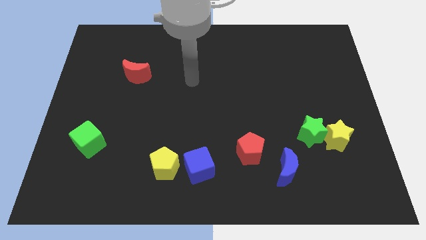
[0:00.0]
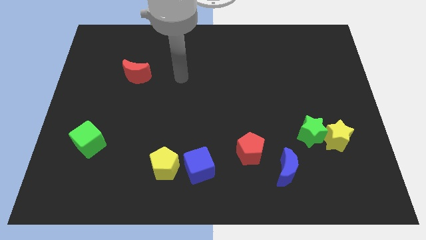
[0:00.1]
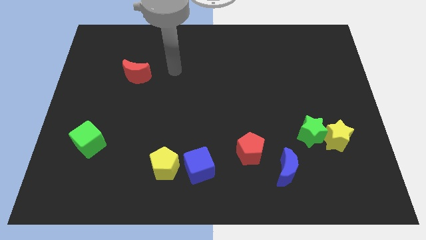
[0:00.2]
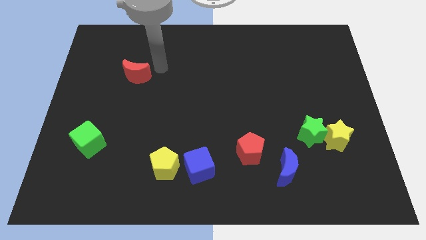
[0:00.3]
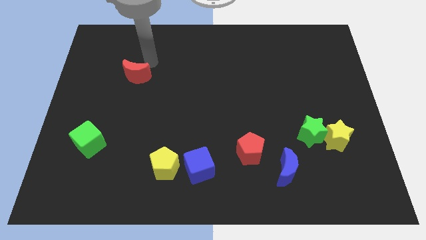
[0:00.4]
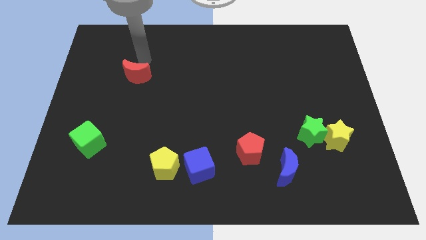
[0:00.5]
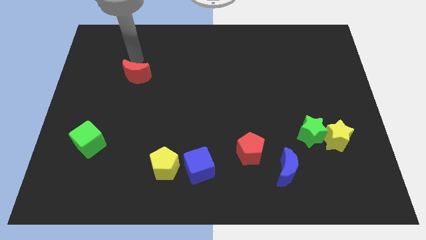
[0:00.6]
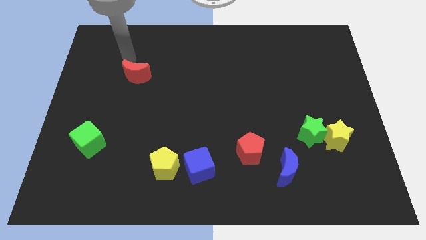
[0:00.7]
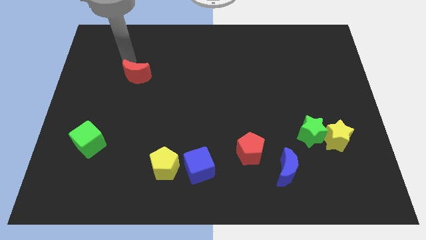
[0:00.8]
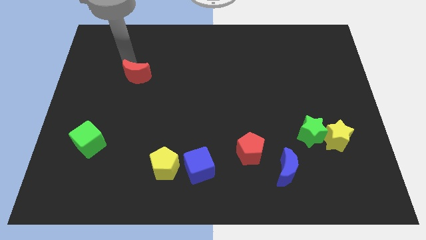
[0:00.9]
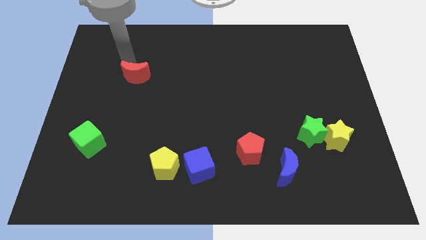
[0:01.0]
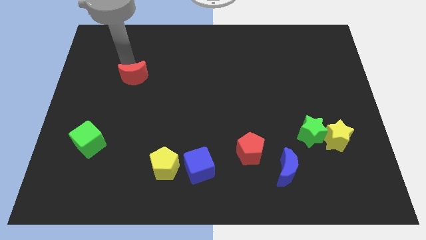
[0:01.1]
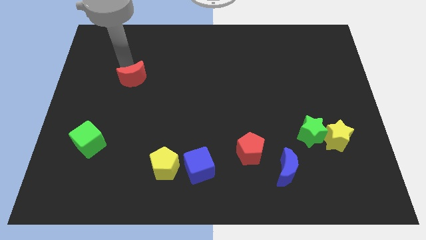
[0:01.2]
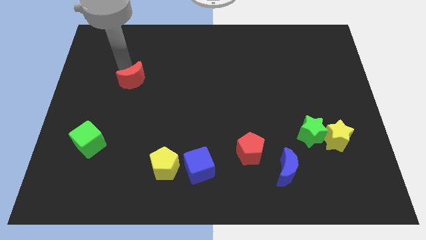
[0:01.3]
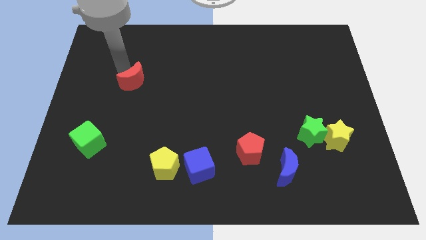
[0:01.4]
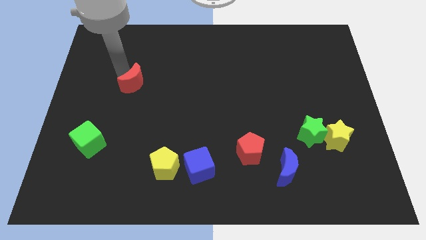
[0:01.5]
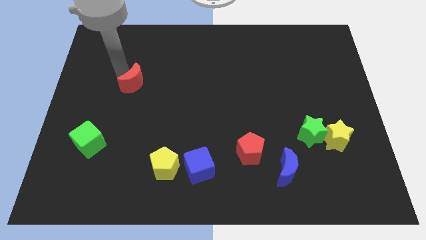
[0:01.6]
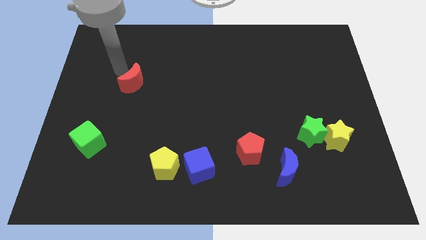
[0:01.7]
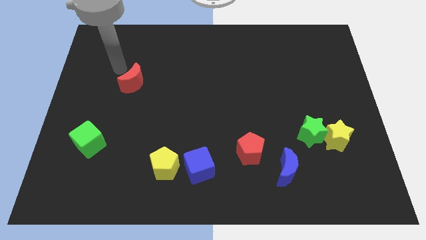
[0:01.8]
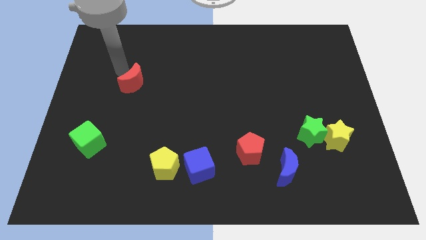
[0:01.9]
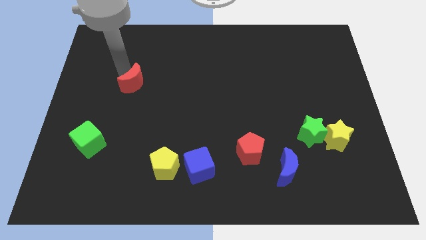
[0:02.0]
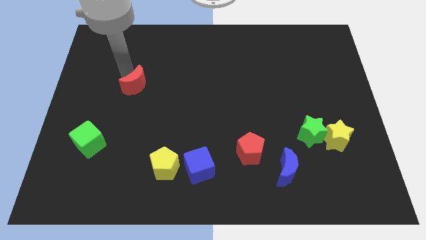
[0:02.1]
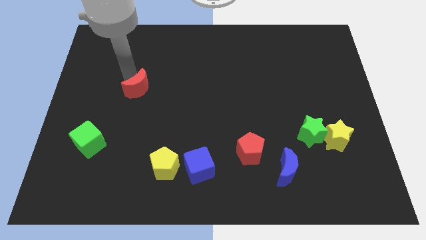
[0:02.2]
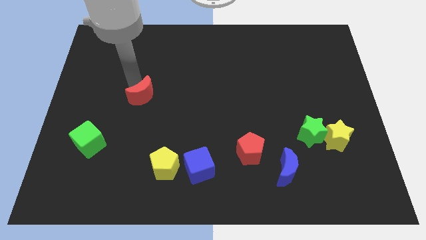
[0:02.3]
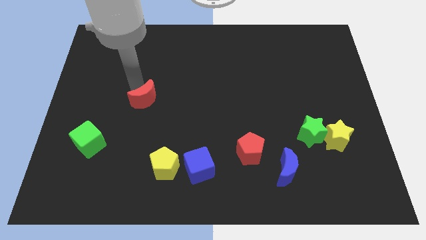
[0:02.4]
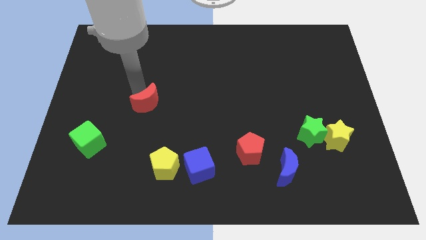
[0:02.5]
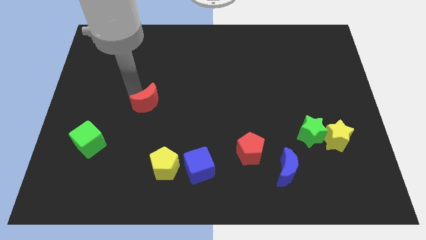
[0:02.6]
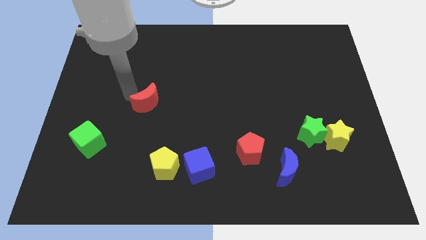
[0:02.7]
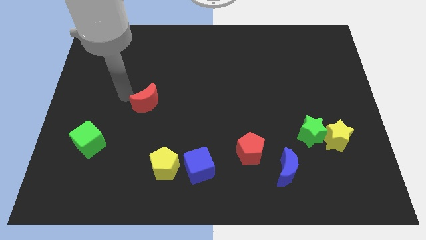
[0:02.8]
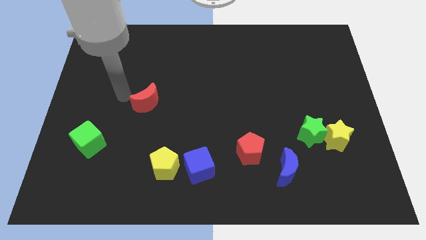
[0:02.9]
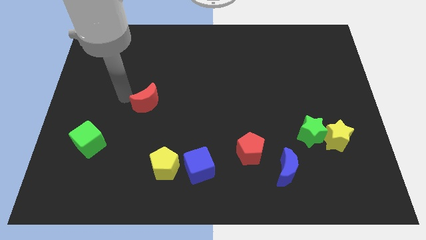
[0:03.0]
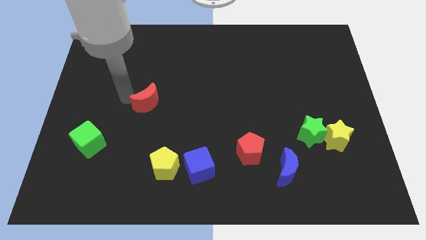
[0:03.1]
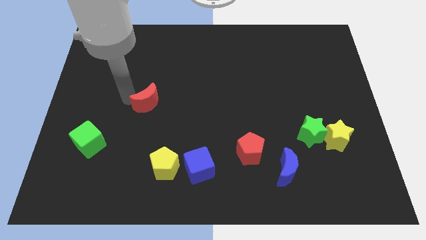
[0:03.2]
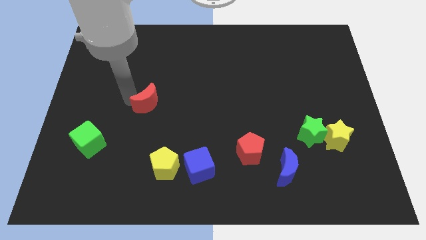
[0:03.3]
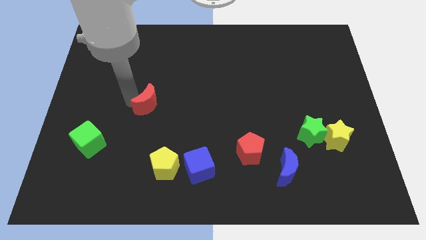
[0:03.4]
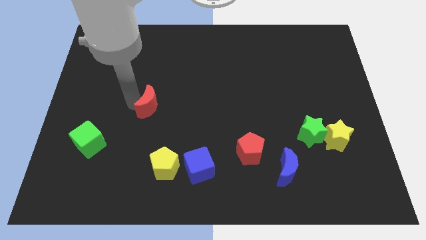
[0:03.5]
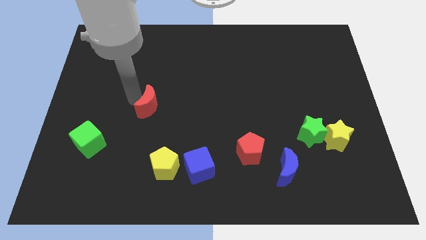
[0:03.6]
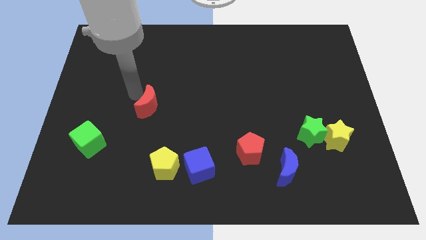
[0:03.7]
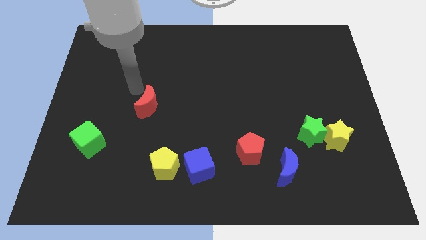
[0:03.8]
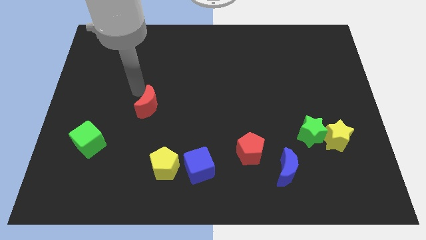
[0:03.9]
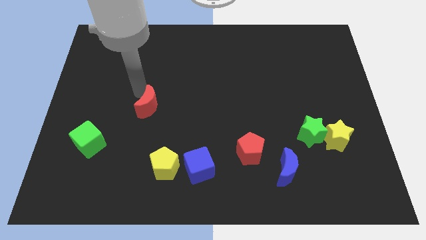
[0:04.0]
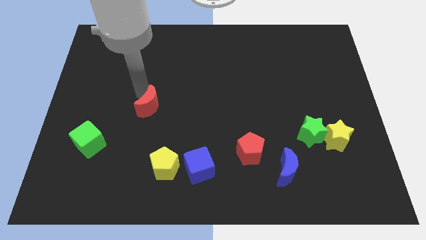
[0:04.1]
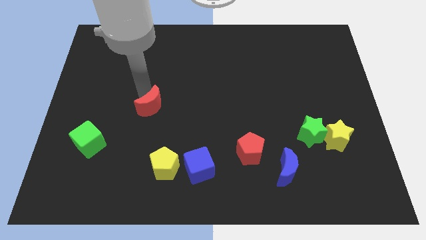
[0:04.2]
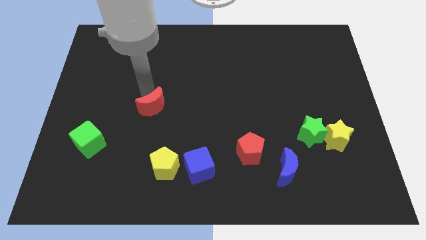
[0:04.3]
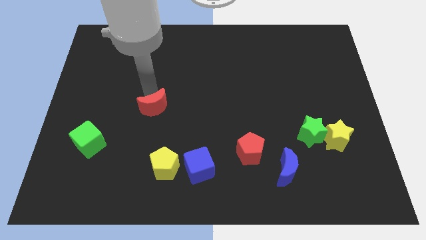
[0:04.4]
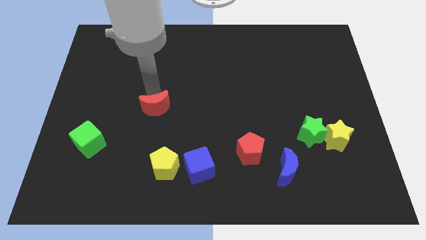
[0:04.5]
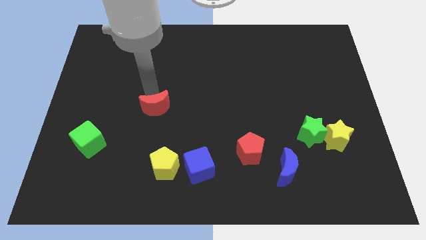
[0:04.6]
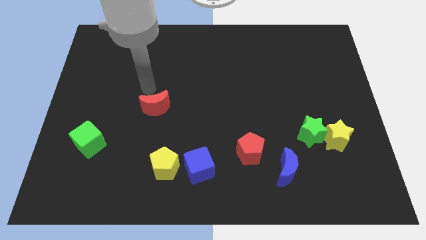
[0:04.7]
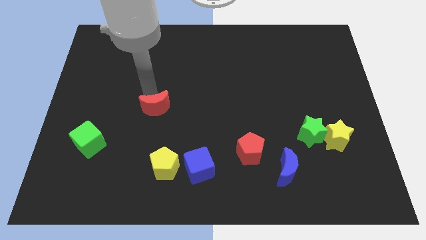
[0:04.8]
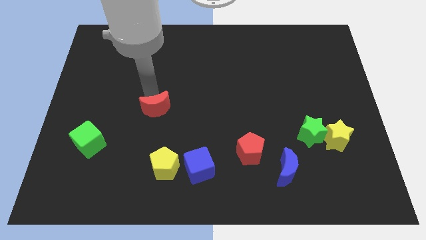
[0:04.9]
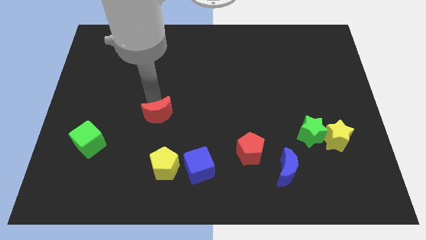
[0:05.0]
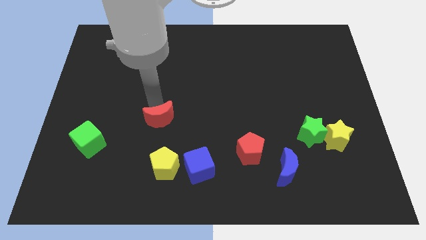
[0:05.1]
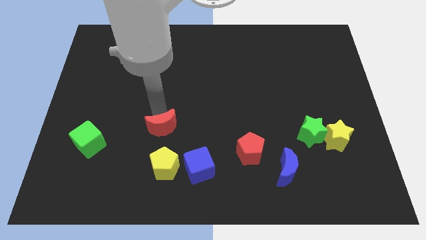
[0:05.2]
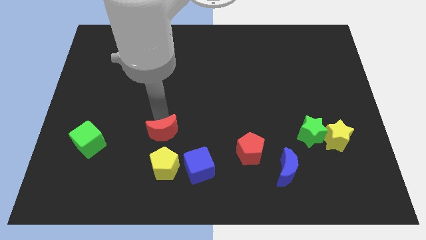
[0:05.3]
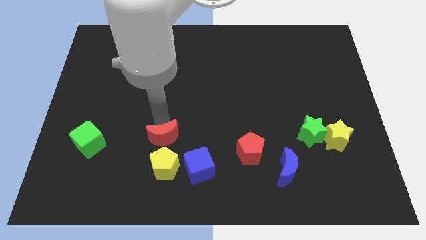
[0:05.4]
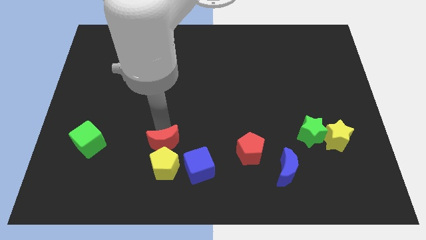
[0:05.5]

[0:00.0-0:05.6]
push the red moon close to the yellow pentagon

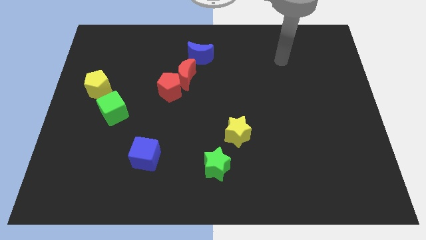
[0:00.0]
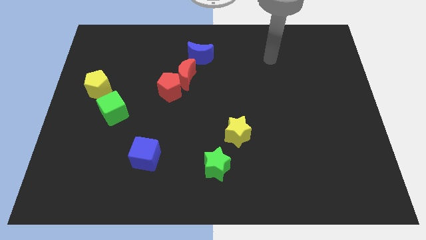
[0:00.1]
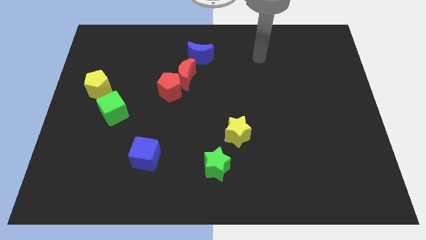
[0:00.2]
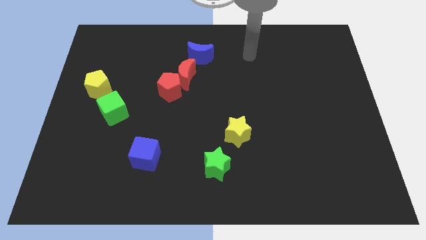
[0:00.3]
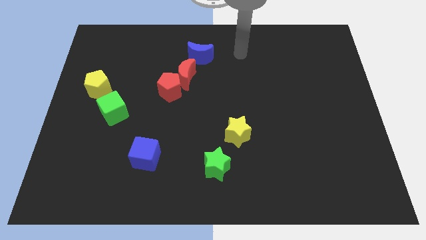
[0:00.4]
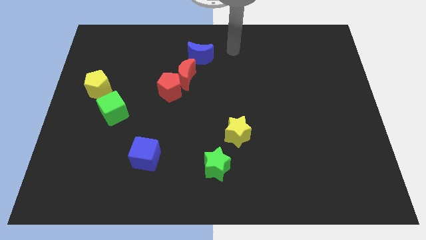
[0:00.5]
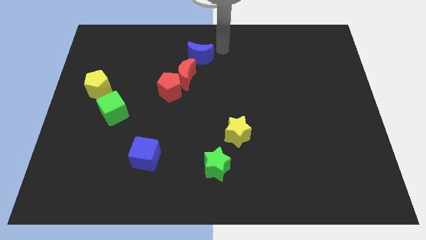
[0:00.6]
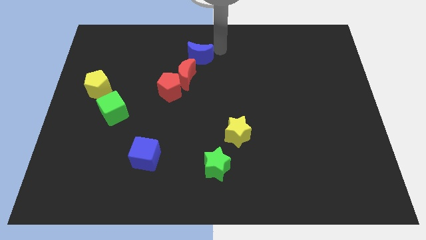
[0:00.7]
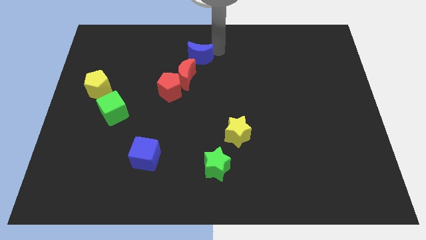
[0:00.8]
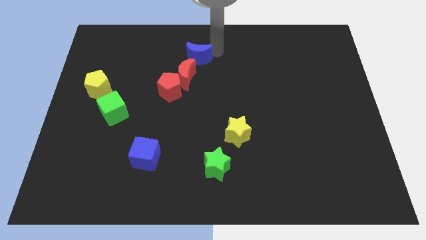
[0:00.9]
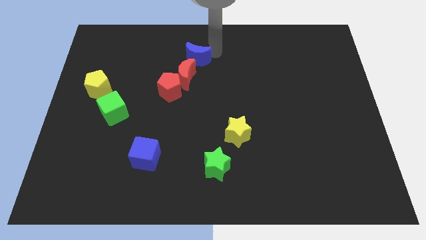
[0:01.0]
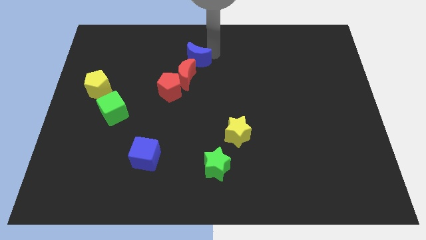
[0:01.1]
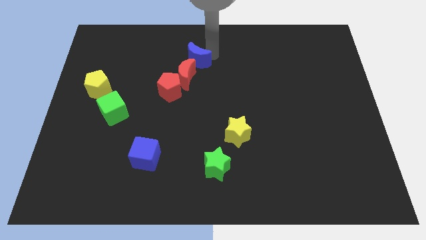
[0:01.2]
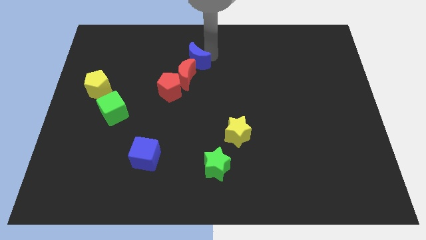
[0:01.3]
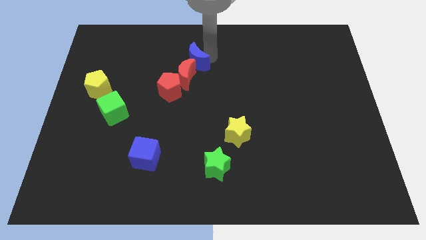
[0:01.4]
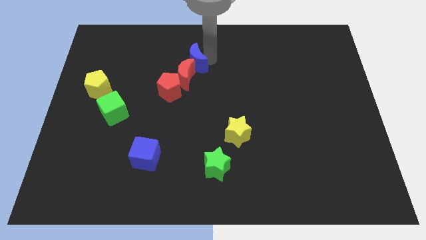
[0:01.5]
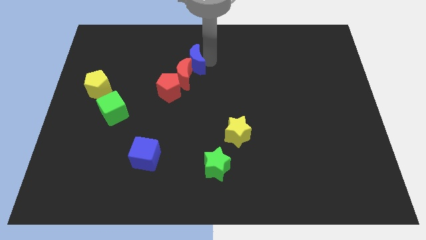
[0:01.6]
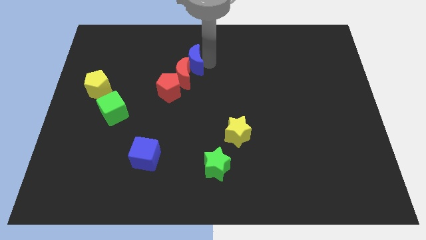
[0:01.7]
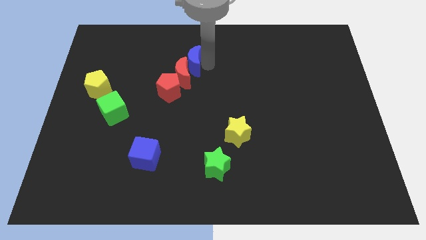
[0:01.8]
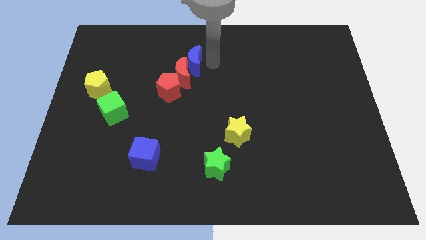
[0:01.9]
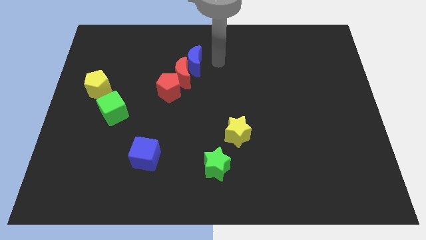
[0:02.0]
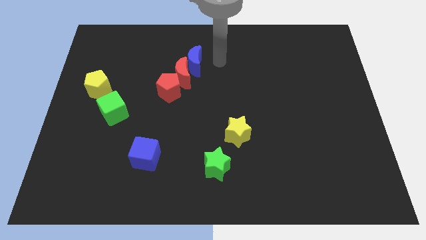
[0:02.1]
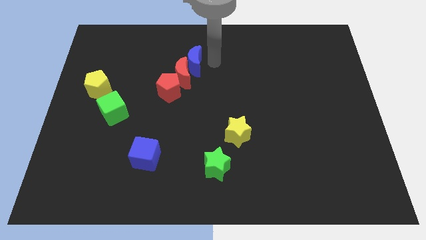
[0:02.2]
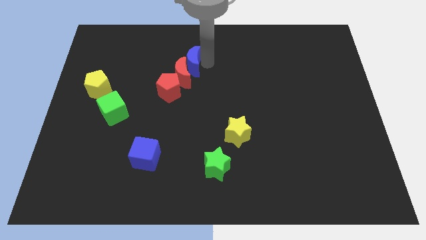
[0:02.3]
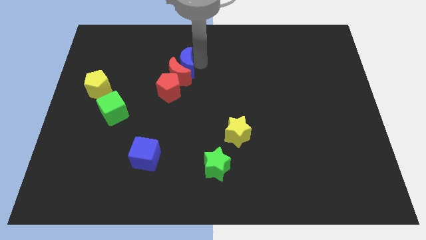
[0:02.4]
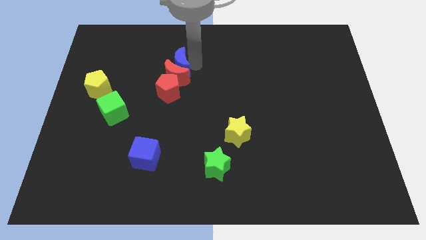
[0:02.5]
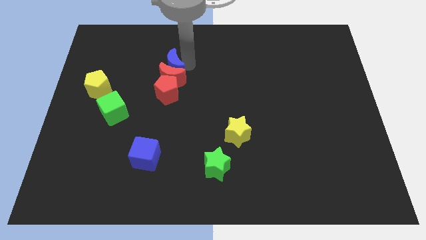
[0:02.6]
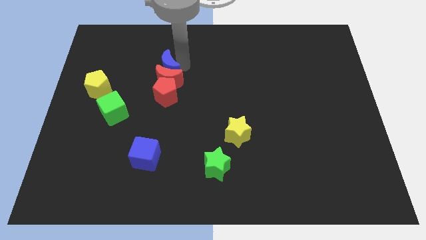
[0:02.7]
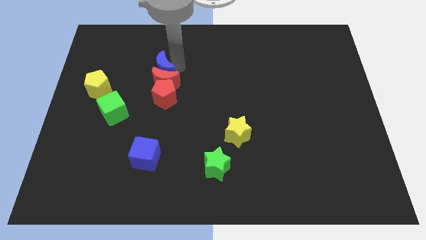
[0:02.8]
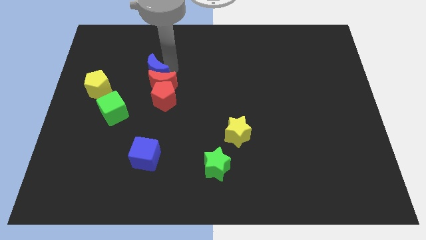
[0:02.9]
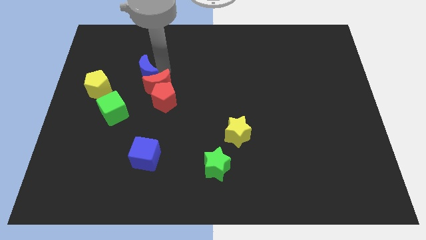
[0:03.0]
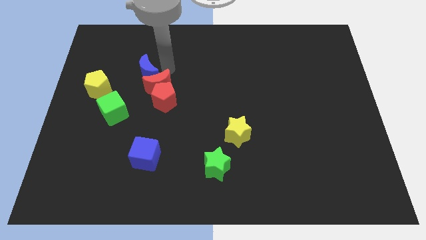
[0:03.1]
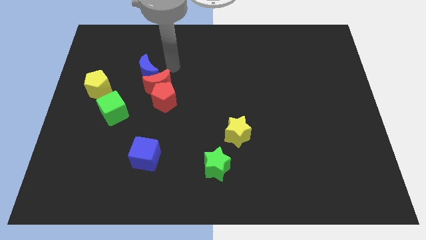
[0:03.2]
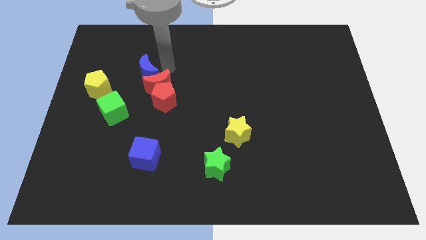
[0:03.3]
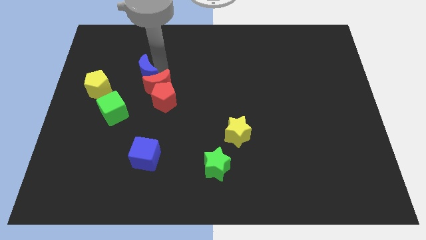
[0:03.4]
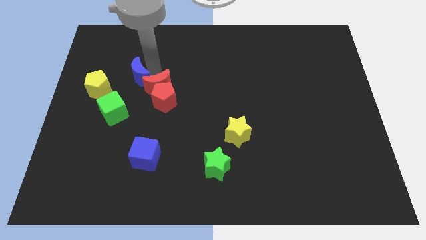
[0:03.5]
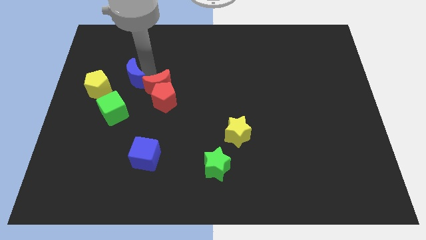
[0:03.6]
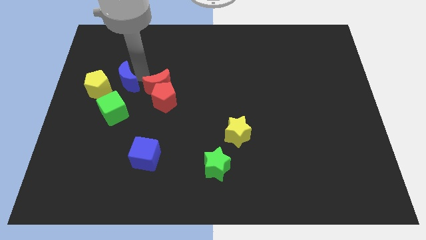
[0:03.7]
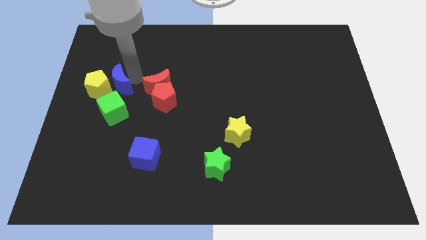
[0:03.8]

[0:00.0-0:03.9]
slide the blue moon next to the yellow pentagon
